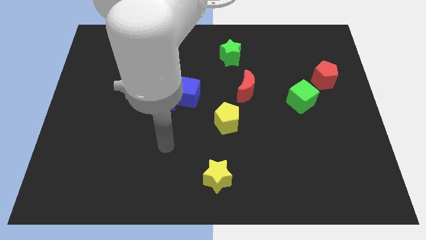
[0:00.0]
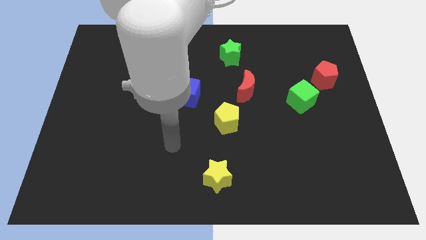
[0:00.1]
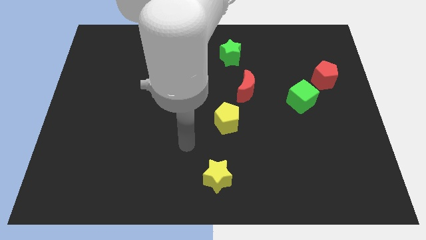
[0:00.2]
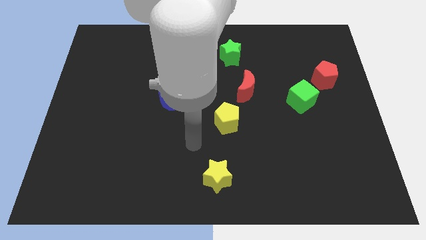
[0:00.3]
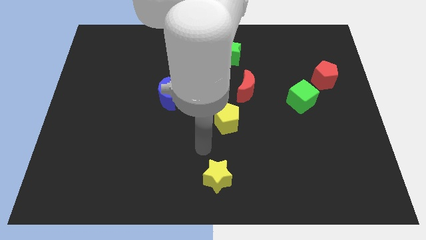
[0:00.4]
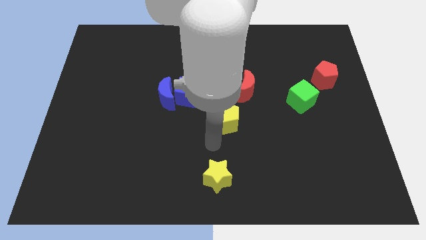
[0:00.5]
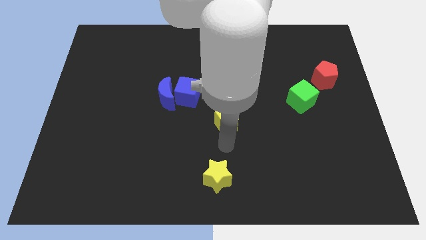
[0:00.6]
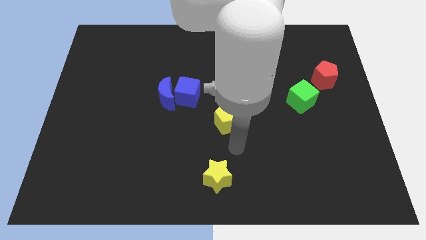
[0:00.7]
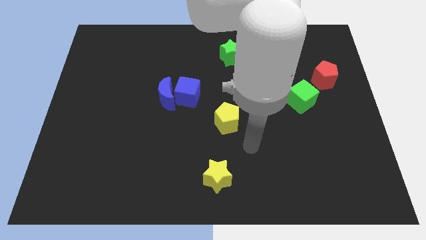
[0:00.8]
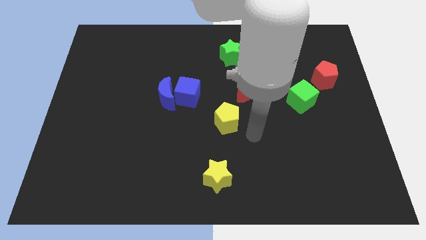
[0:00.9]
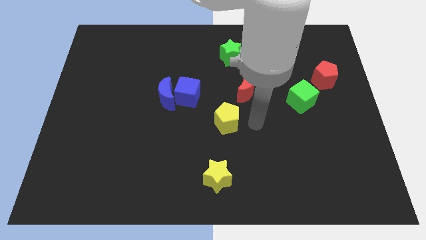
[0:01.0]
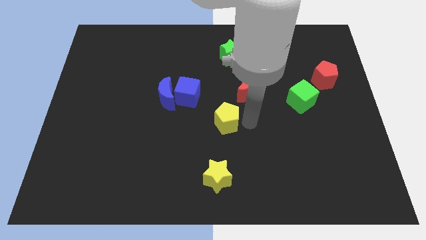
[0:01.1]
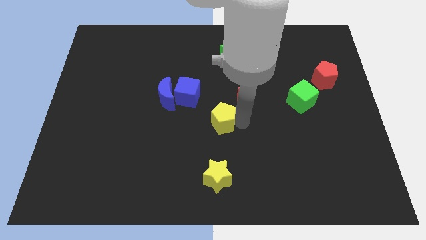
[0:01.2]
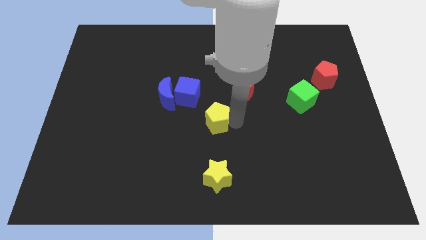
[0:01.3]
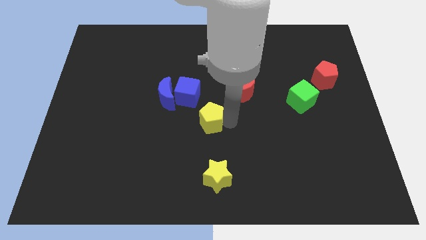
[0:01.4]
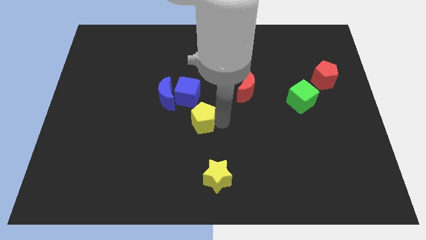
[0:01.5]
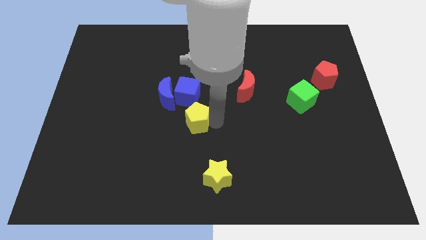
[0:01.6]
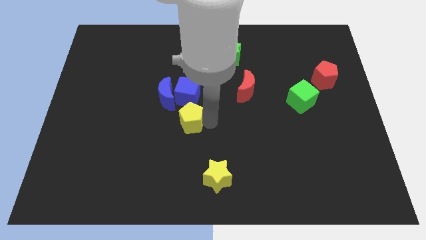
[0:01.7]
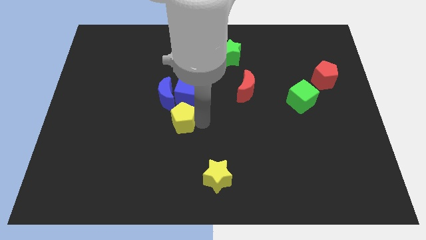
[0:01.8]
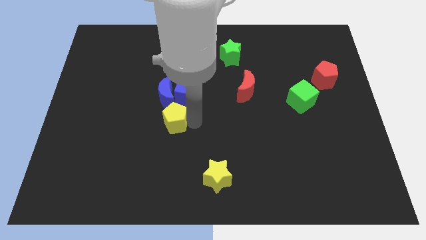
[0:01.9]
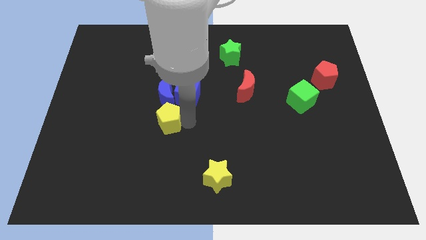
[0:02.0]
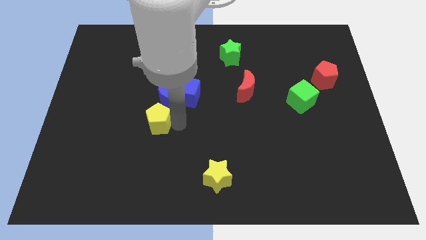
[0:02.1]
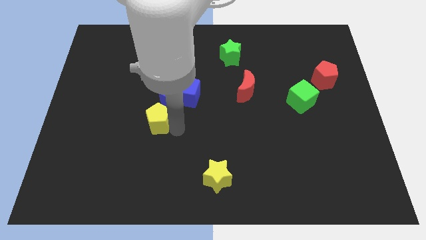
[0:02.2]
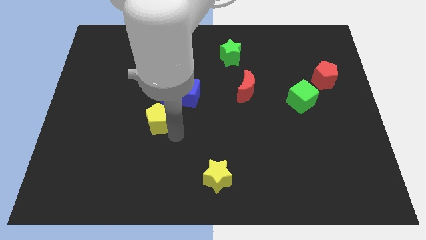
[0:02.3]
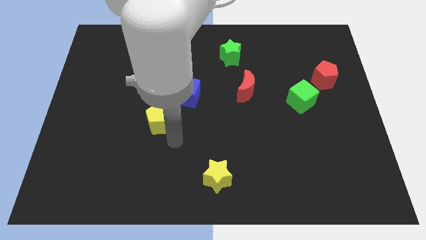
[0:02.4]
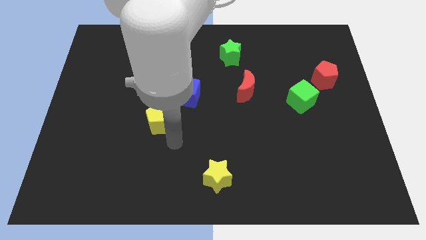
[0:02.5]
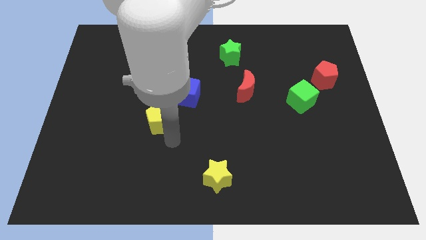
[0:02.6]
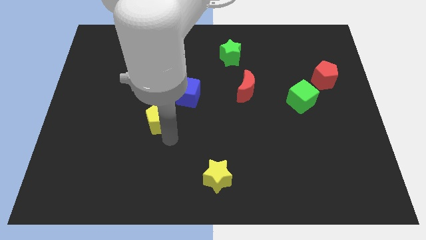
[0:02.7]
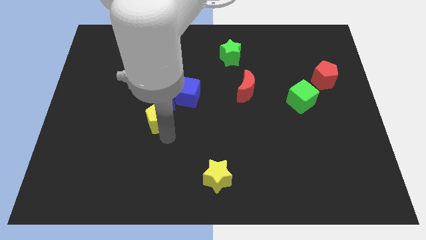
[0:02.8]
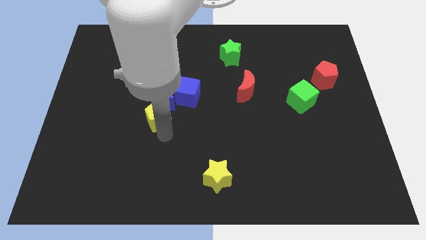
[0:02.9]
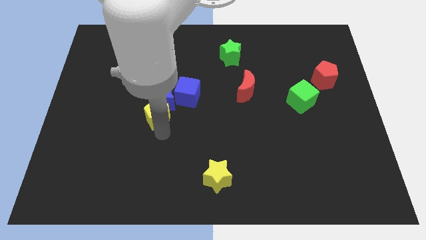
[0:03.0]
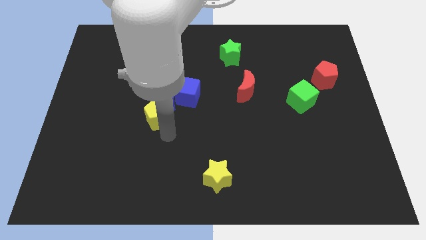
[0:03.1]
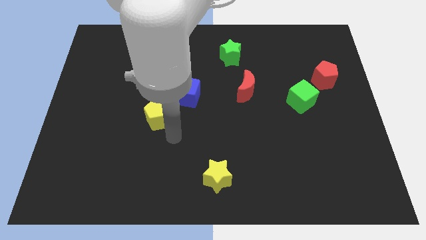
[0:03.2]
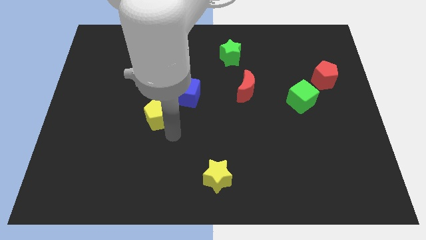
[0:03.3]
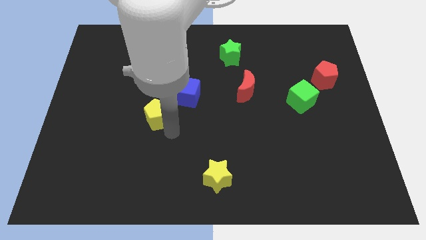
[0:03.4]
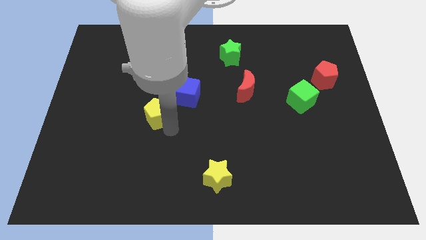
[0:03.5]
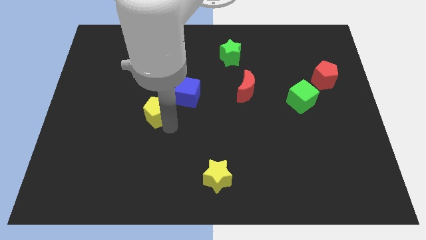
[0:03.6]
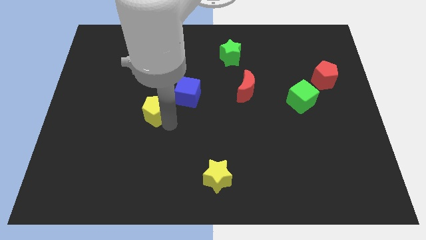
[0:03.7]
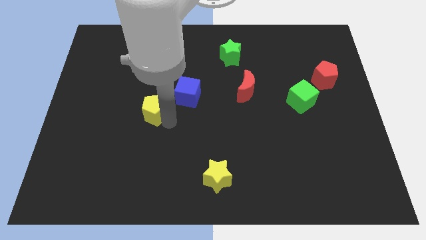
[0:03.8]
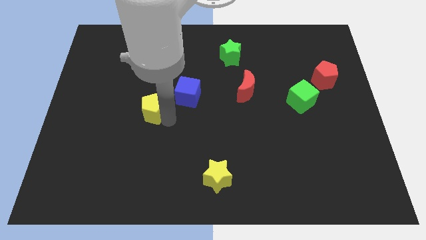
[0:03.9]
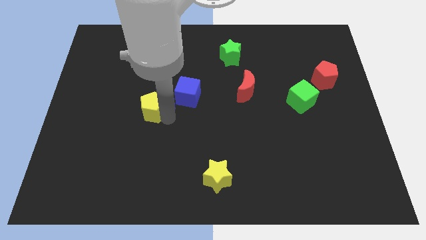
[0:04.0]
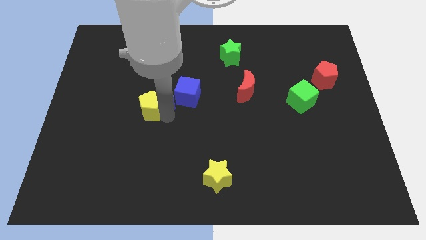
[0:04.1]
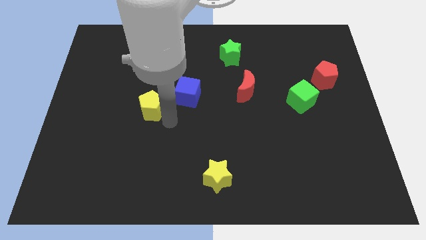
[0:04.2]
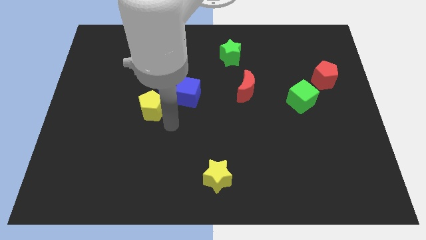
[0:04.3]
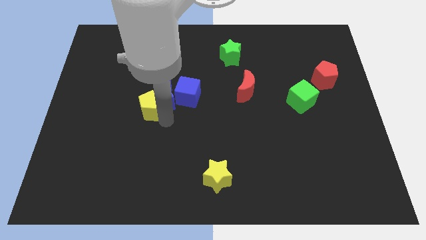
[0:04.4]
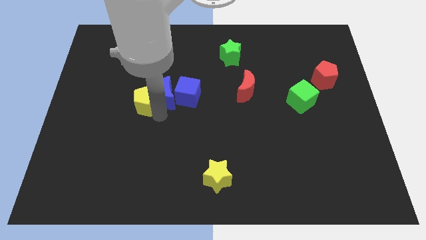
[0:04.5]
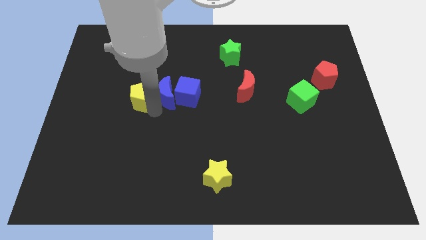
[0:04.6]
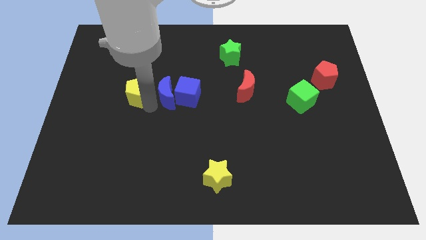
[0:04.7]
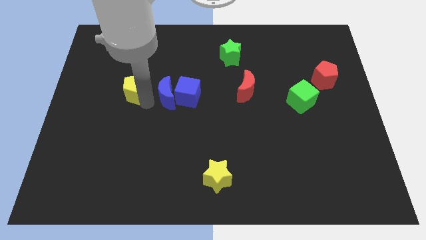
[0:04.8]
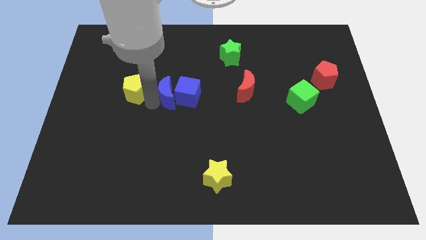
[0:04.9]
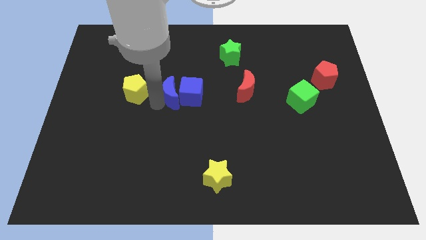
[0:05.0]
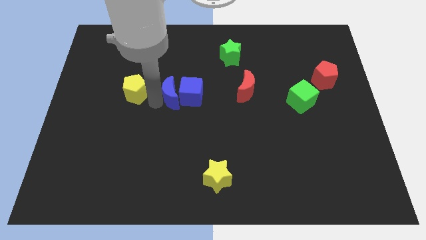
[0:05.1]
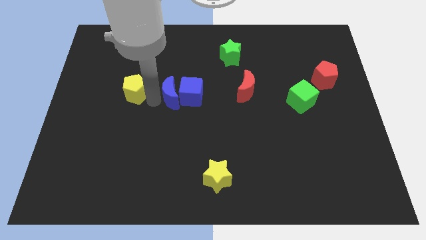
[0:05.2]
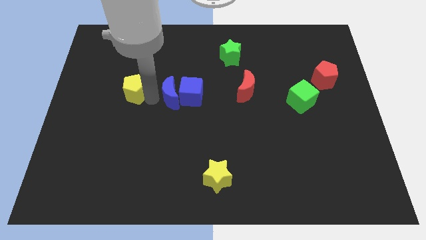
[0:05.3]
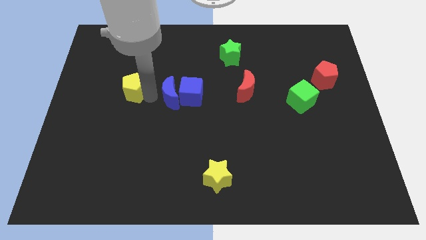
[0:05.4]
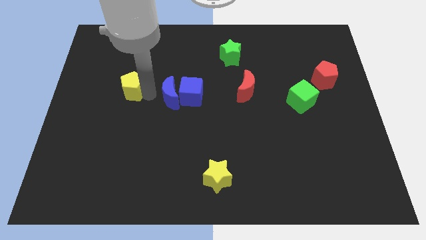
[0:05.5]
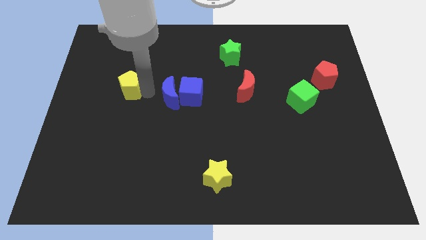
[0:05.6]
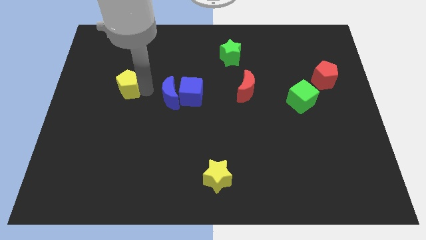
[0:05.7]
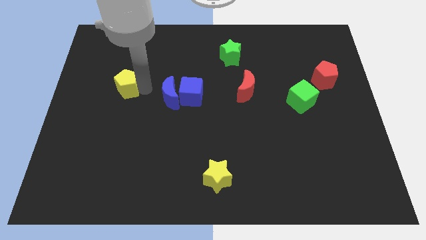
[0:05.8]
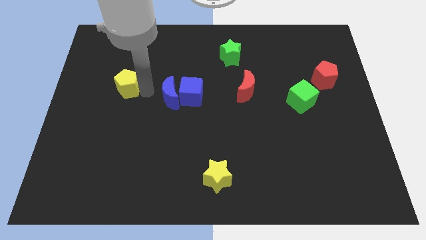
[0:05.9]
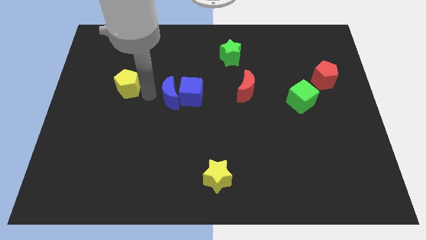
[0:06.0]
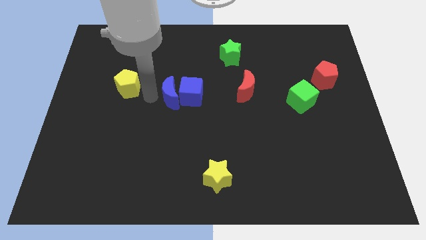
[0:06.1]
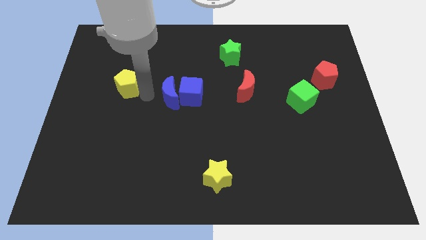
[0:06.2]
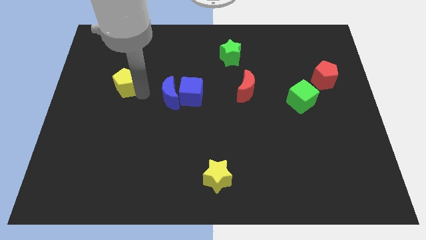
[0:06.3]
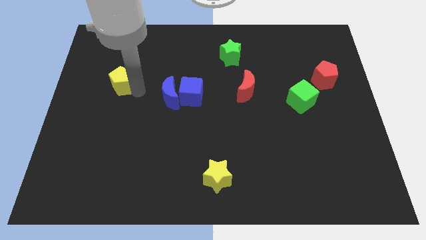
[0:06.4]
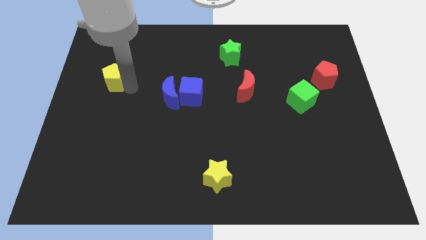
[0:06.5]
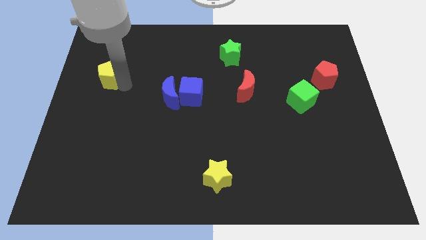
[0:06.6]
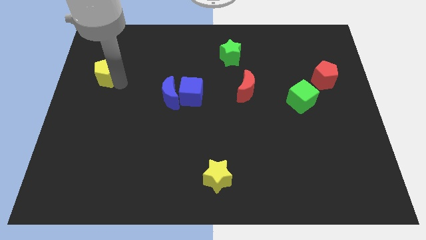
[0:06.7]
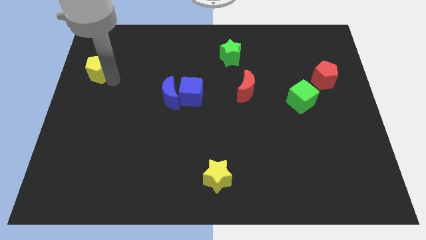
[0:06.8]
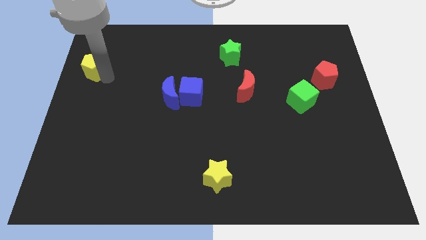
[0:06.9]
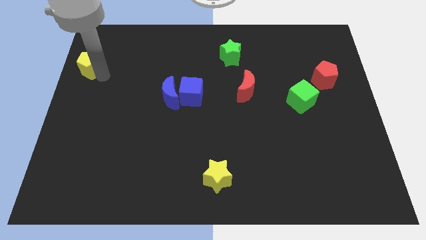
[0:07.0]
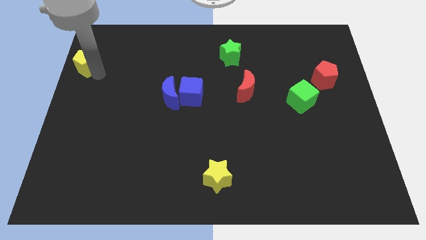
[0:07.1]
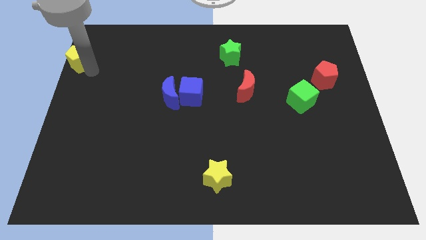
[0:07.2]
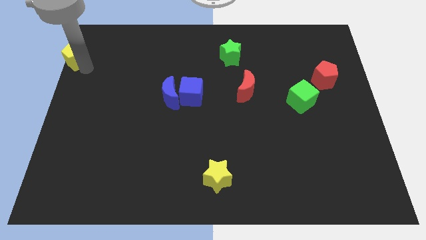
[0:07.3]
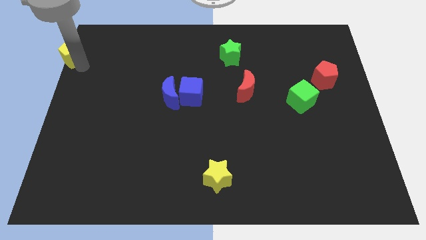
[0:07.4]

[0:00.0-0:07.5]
move the yellow pentagon to the upper left corner

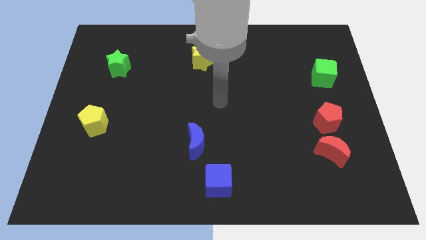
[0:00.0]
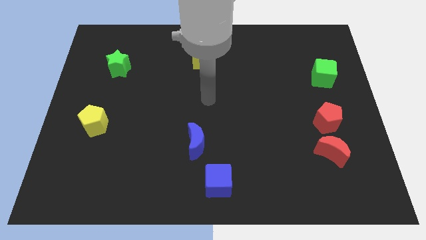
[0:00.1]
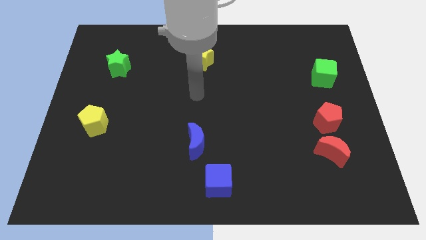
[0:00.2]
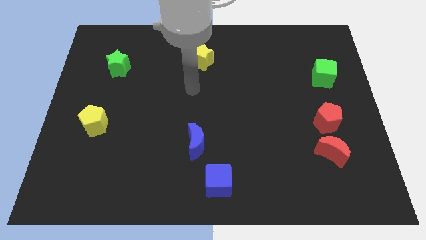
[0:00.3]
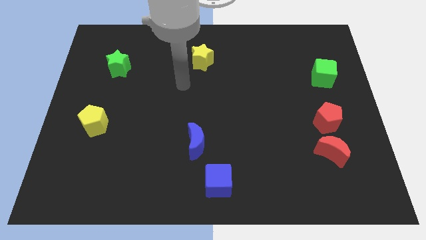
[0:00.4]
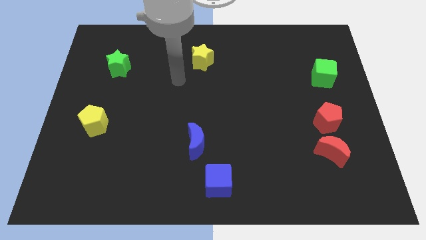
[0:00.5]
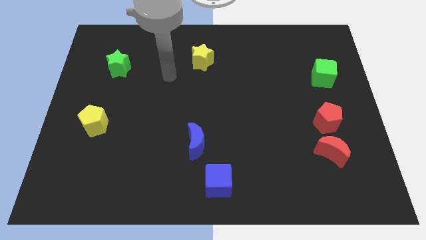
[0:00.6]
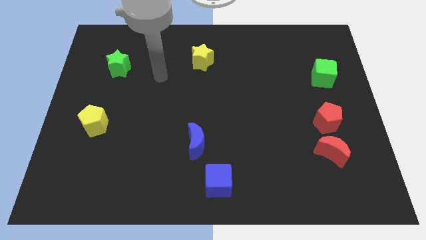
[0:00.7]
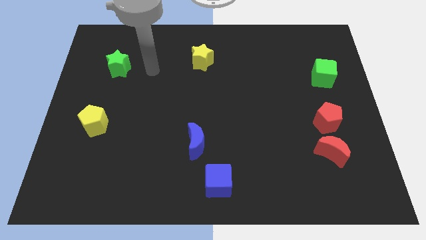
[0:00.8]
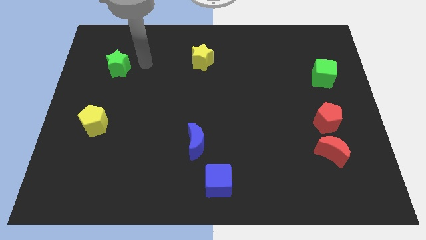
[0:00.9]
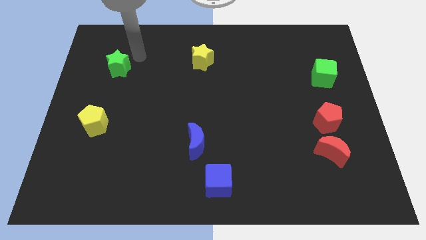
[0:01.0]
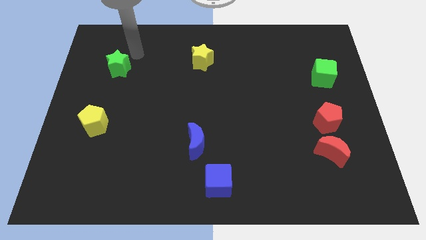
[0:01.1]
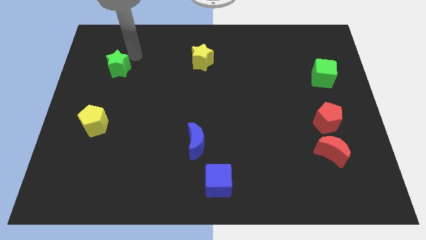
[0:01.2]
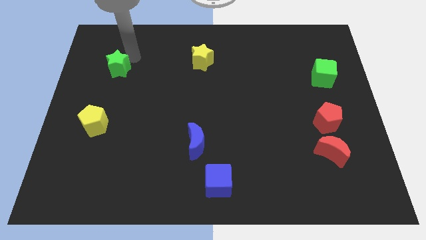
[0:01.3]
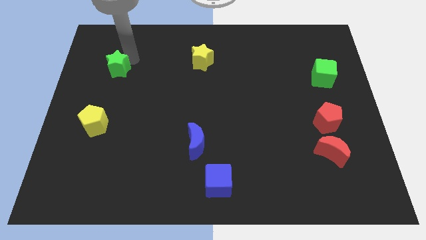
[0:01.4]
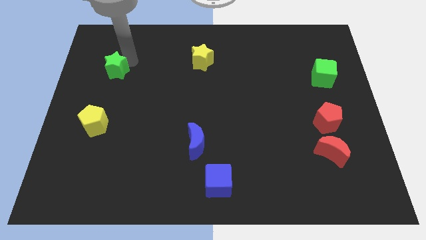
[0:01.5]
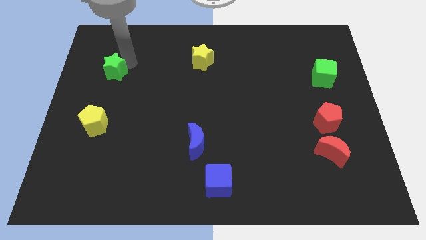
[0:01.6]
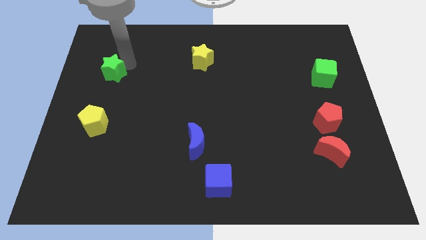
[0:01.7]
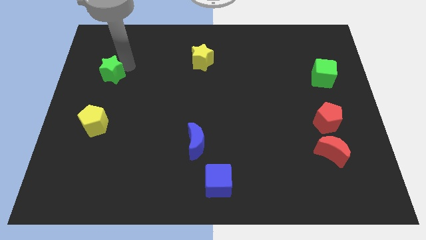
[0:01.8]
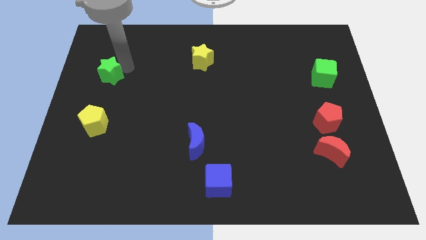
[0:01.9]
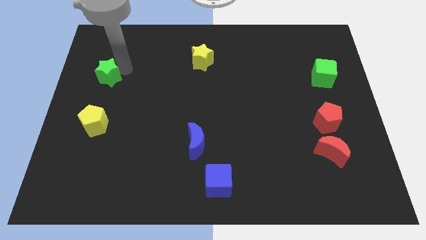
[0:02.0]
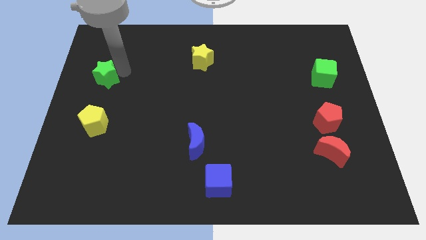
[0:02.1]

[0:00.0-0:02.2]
put the green star to the center left
